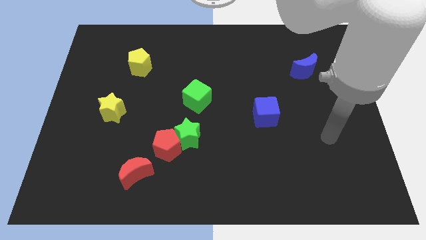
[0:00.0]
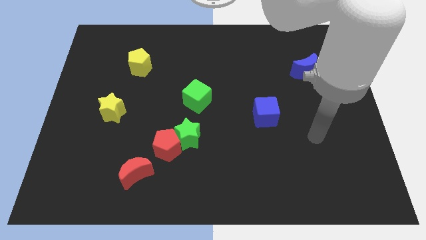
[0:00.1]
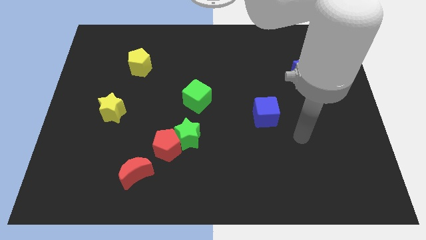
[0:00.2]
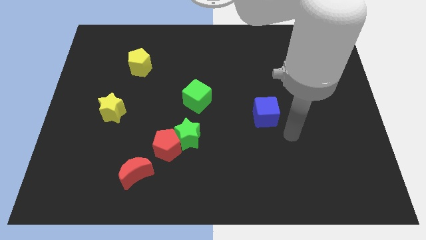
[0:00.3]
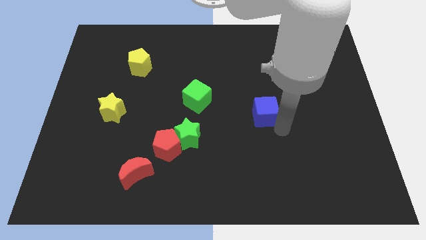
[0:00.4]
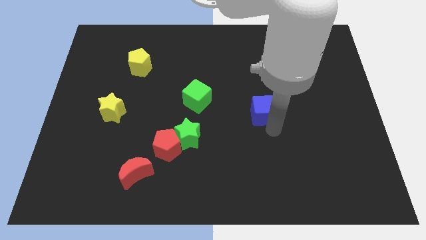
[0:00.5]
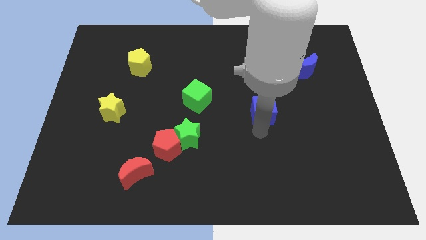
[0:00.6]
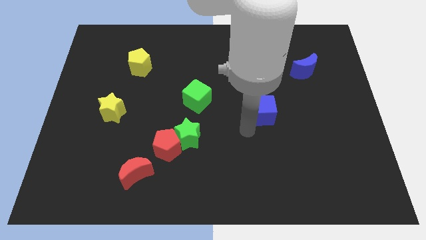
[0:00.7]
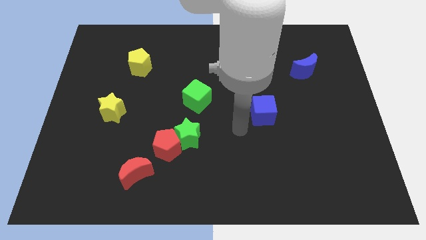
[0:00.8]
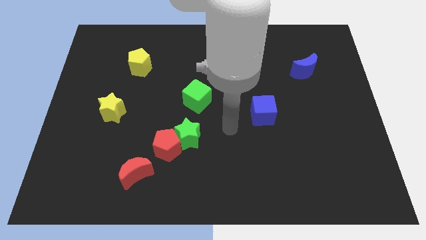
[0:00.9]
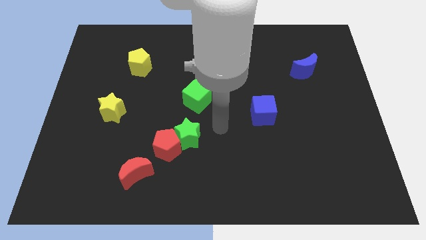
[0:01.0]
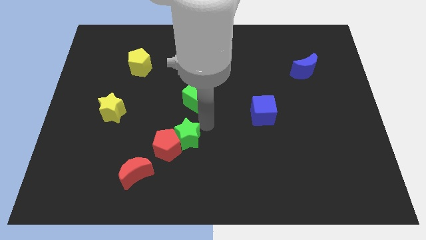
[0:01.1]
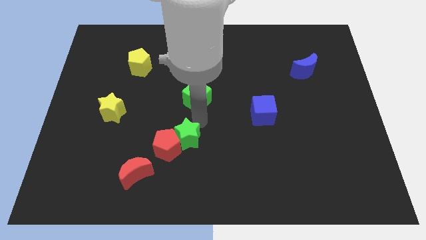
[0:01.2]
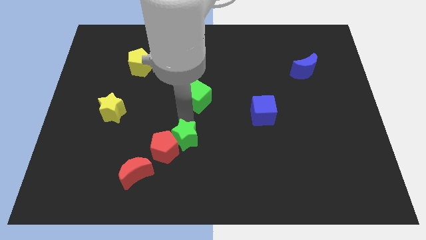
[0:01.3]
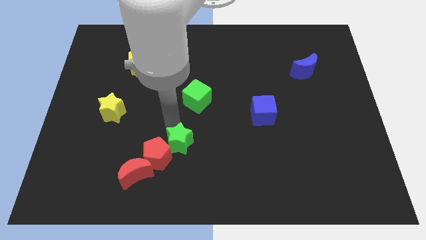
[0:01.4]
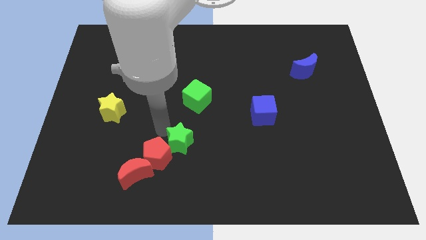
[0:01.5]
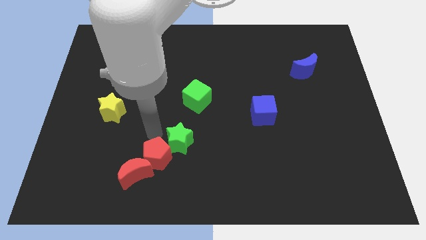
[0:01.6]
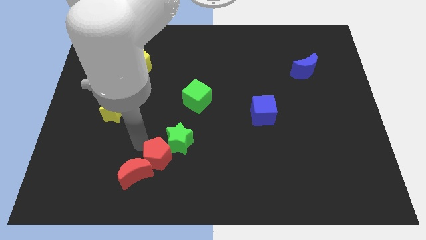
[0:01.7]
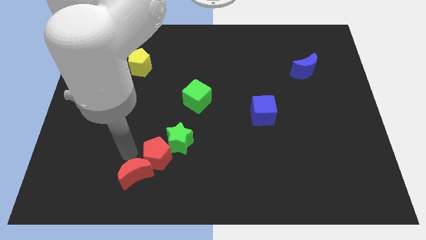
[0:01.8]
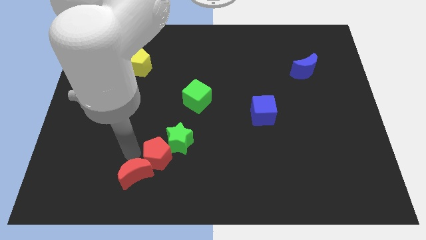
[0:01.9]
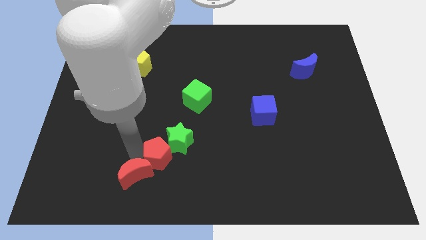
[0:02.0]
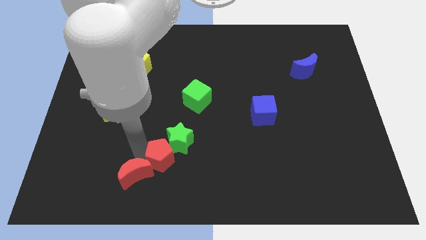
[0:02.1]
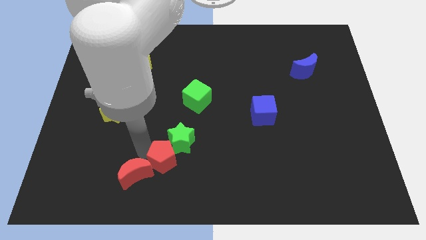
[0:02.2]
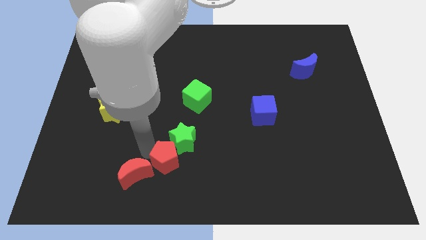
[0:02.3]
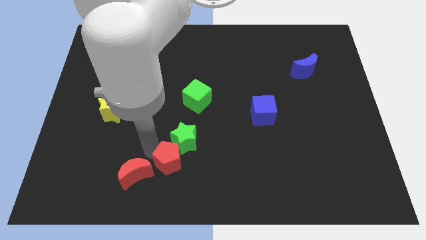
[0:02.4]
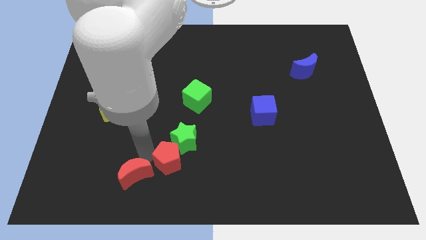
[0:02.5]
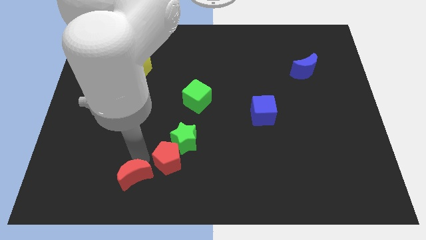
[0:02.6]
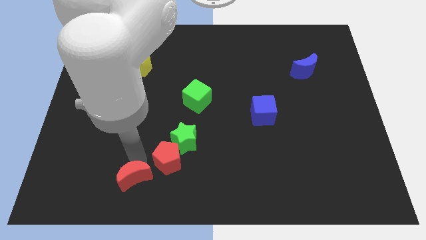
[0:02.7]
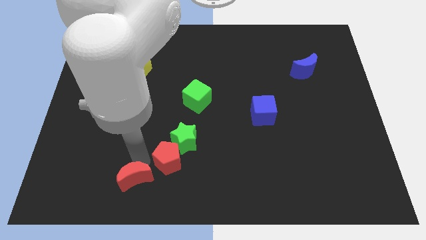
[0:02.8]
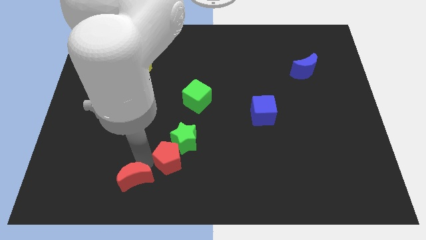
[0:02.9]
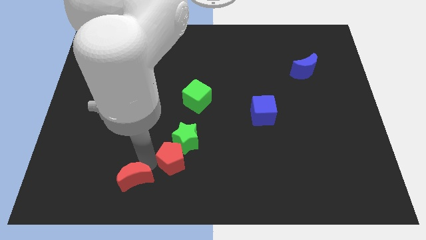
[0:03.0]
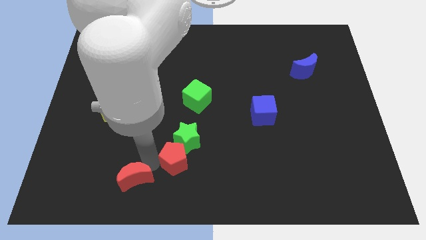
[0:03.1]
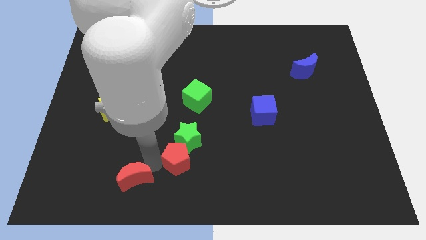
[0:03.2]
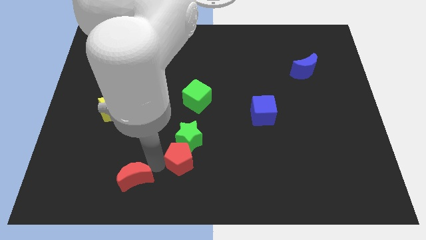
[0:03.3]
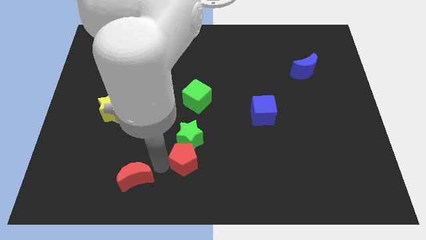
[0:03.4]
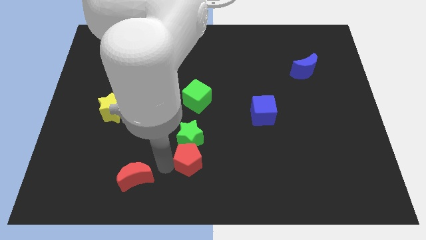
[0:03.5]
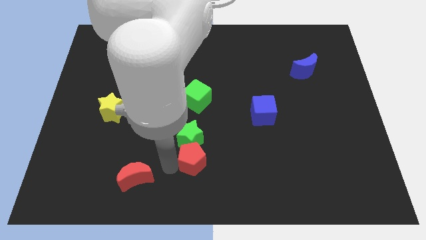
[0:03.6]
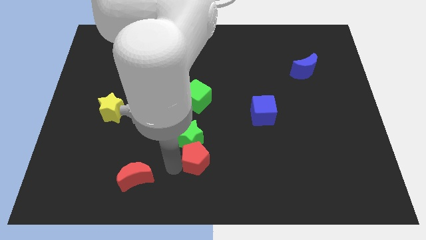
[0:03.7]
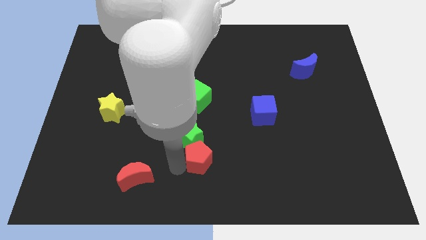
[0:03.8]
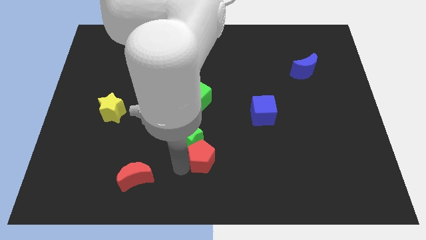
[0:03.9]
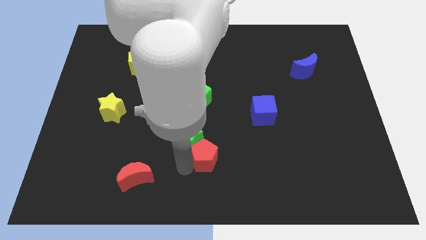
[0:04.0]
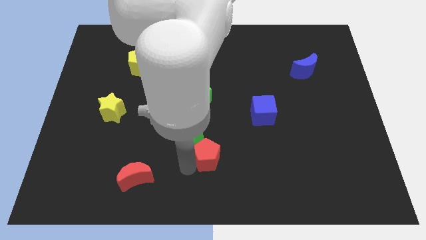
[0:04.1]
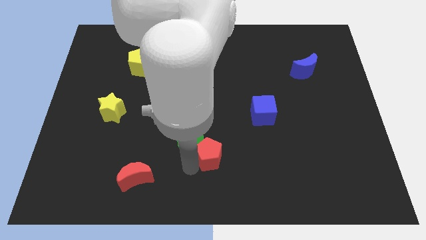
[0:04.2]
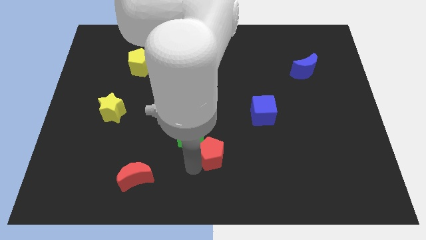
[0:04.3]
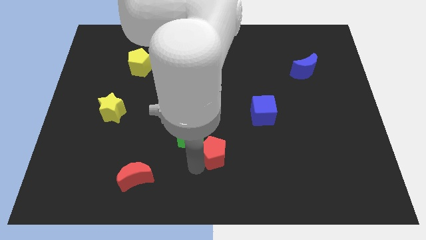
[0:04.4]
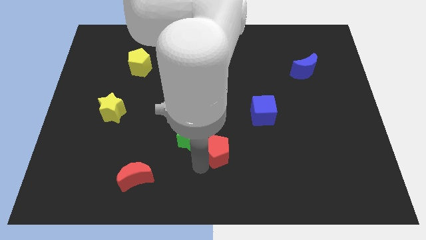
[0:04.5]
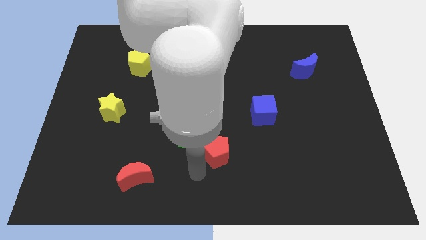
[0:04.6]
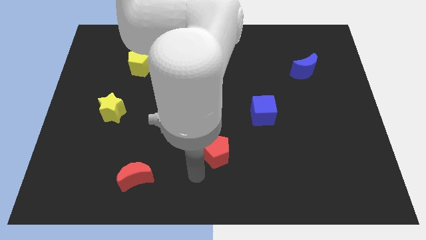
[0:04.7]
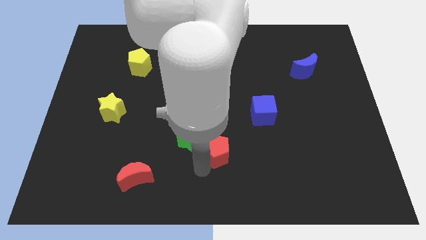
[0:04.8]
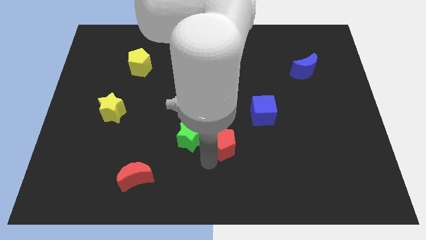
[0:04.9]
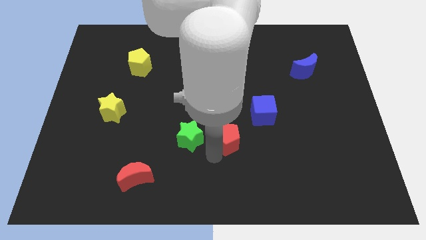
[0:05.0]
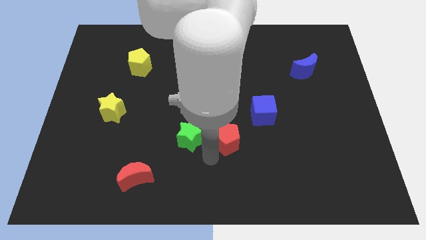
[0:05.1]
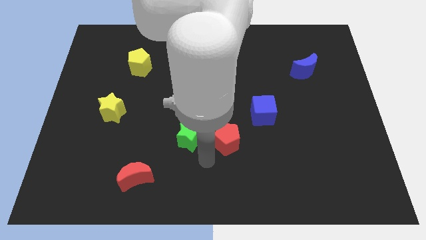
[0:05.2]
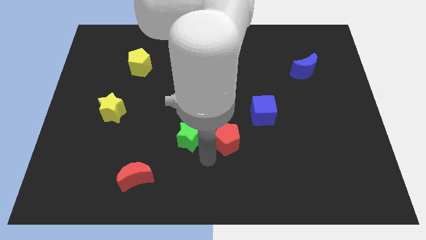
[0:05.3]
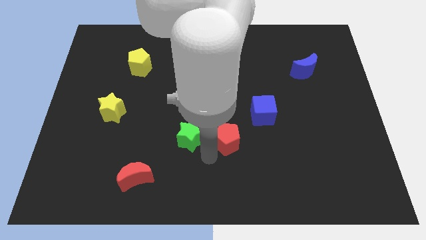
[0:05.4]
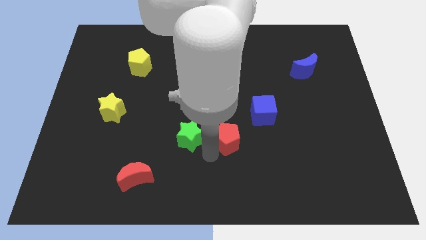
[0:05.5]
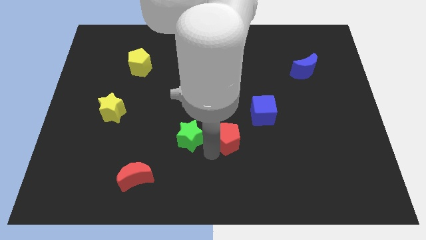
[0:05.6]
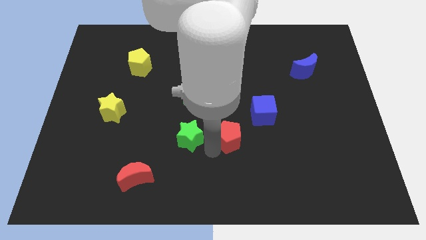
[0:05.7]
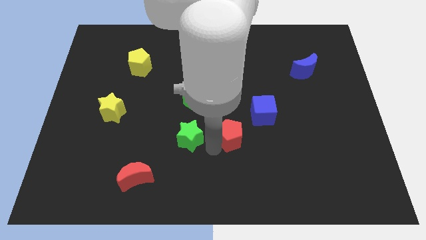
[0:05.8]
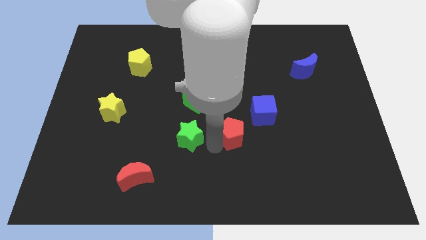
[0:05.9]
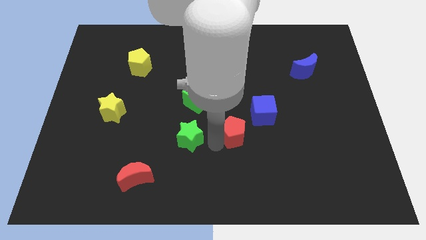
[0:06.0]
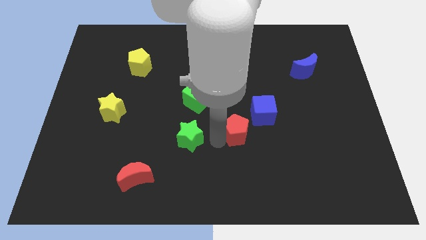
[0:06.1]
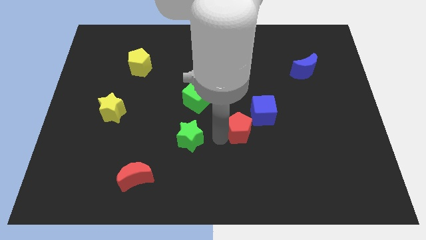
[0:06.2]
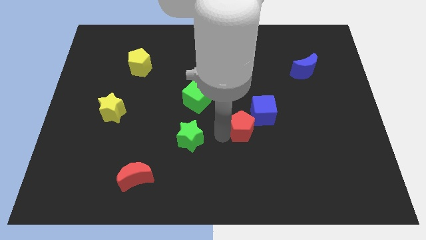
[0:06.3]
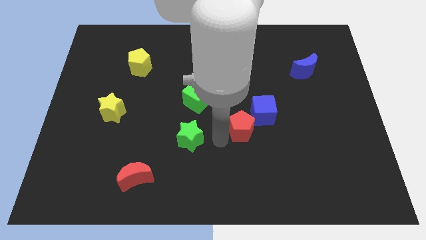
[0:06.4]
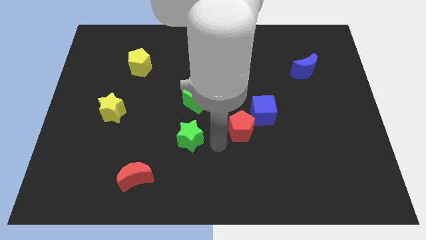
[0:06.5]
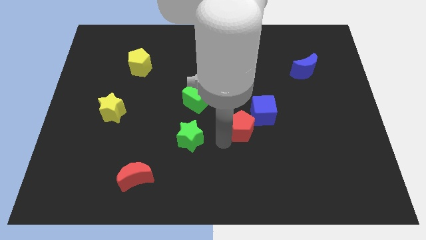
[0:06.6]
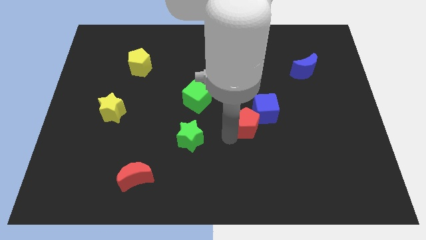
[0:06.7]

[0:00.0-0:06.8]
push the red pentagon close to the blue cube
